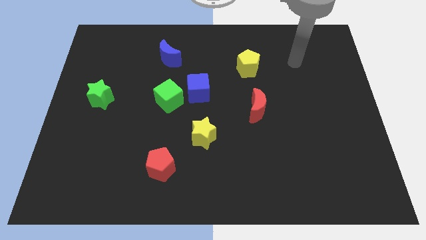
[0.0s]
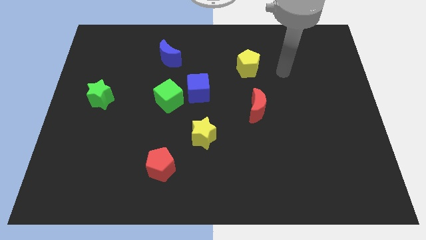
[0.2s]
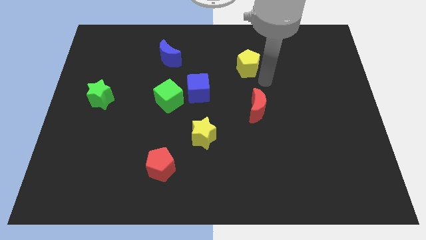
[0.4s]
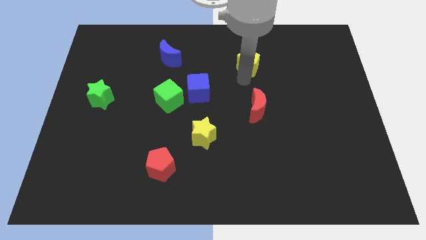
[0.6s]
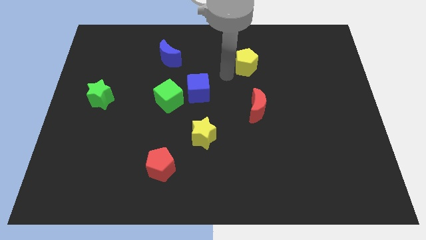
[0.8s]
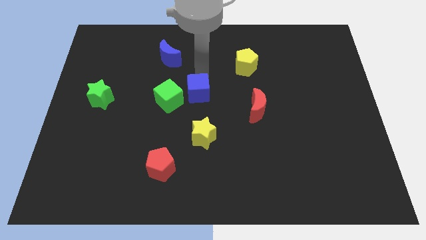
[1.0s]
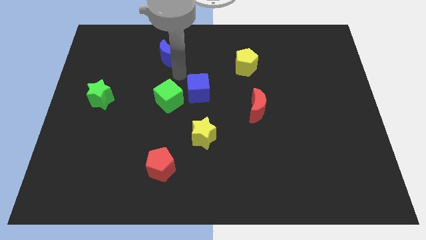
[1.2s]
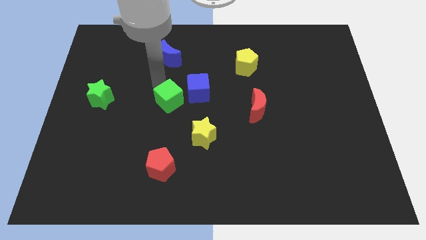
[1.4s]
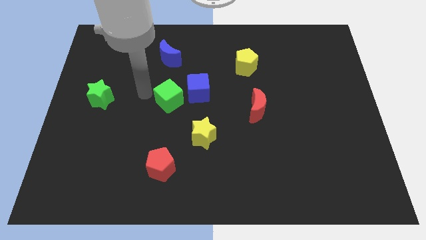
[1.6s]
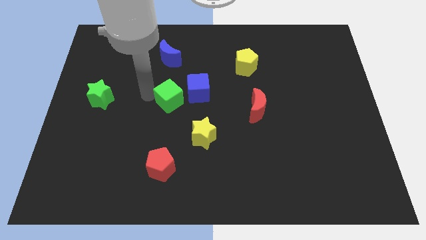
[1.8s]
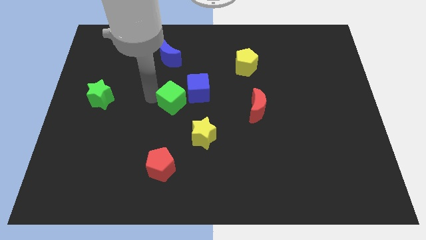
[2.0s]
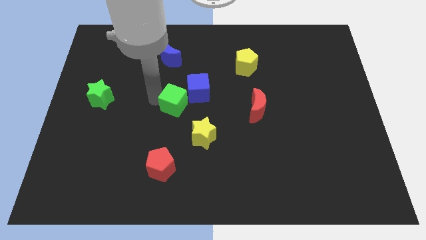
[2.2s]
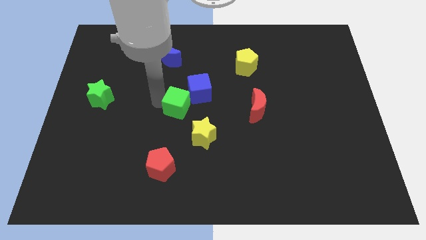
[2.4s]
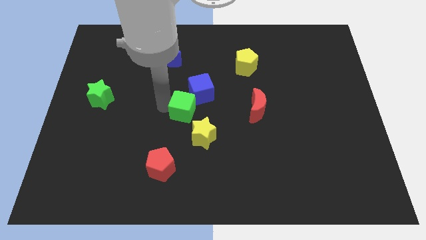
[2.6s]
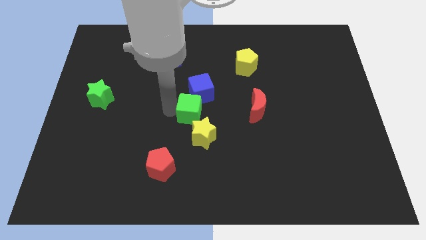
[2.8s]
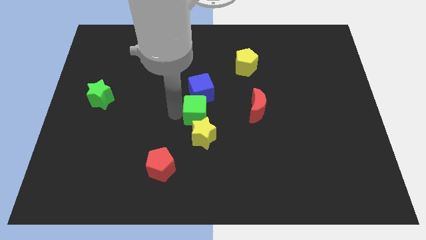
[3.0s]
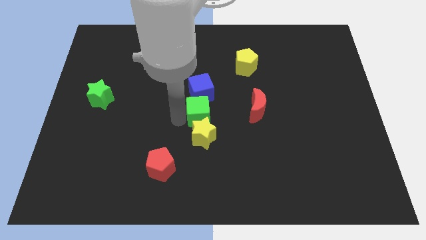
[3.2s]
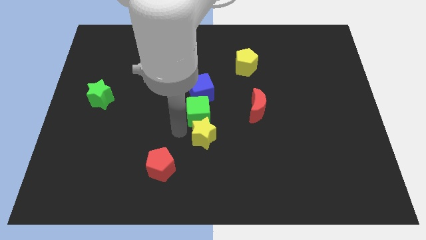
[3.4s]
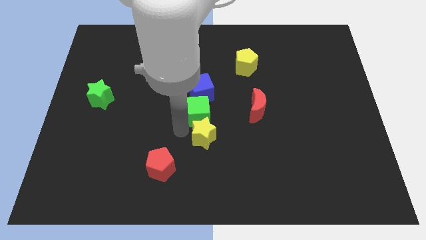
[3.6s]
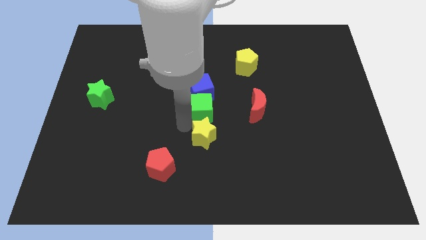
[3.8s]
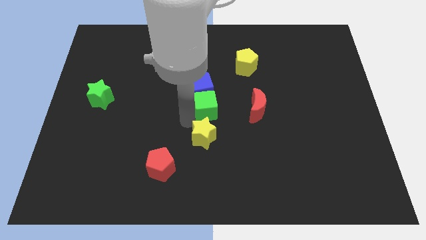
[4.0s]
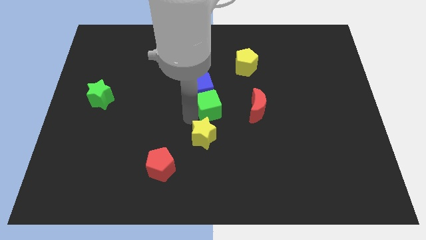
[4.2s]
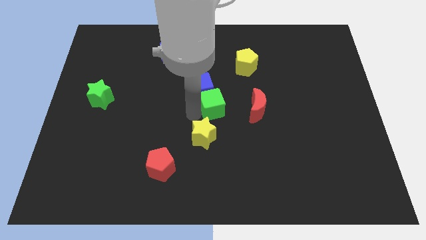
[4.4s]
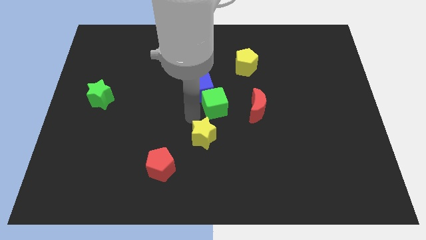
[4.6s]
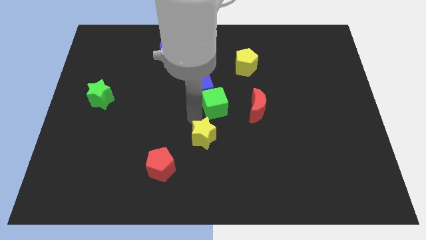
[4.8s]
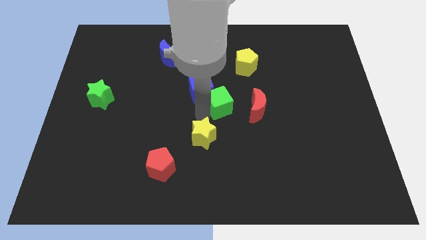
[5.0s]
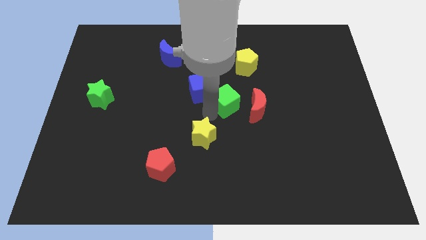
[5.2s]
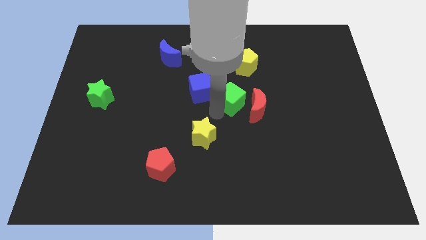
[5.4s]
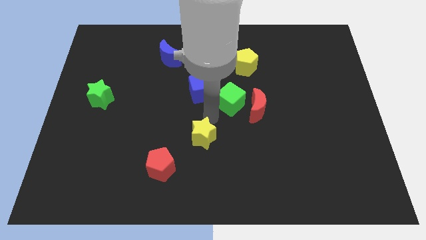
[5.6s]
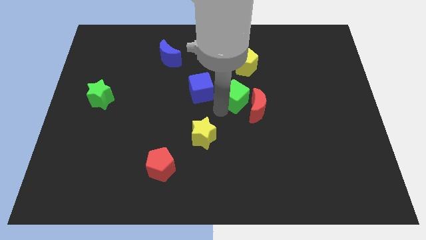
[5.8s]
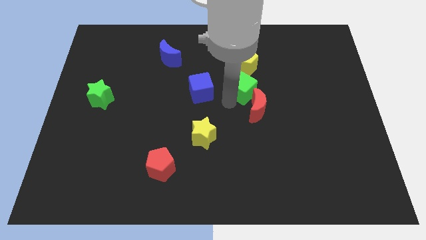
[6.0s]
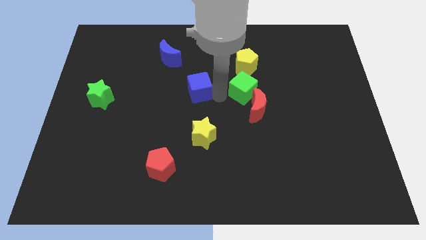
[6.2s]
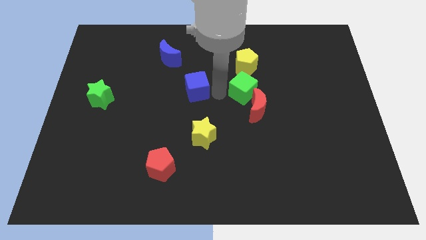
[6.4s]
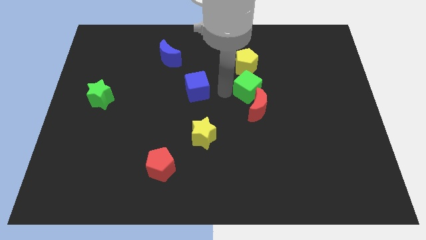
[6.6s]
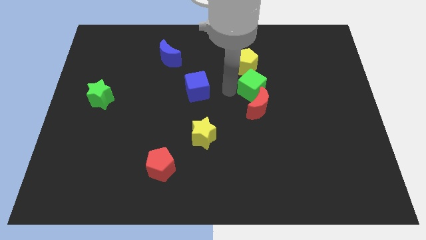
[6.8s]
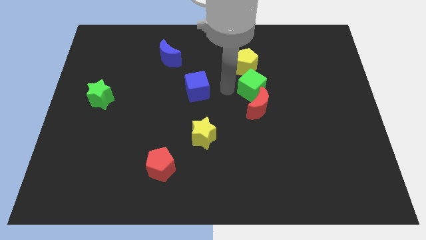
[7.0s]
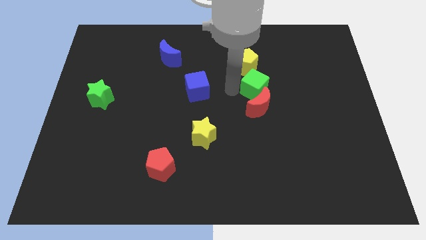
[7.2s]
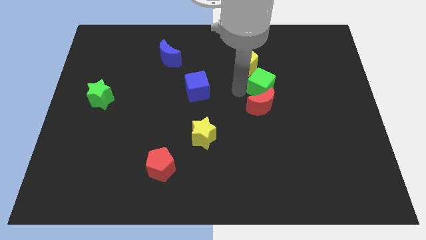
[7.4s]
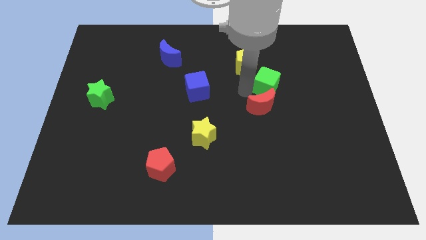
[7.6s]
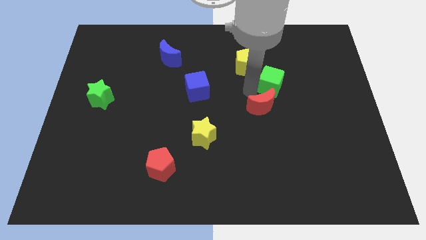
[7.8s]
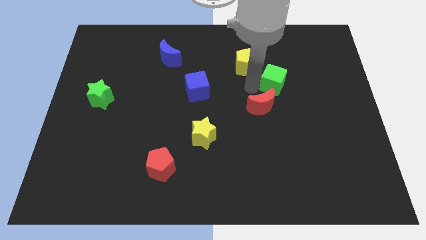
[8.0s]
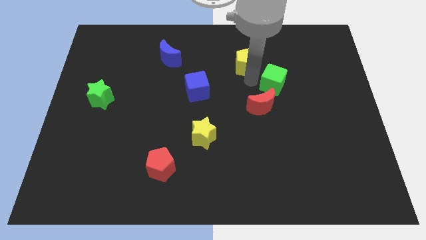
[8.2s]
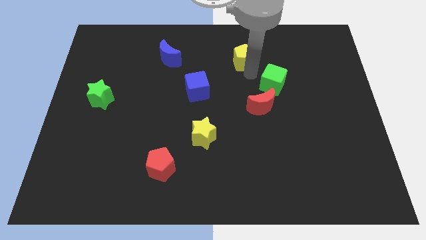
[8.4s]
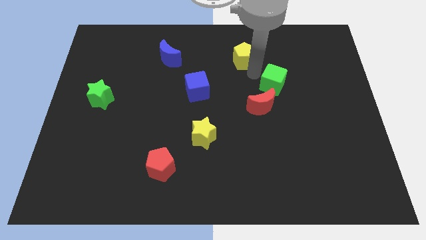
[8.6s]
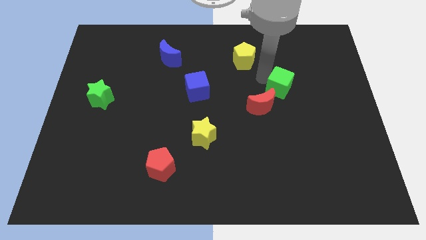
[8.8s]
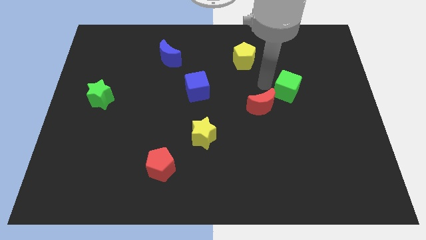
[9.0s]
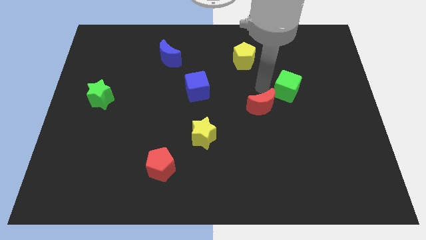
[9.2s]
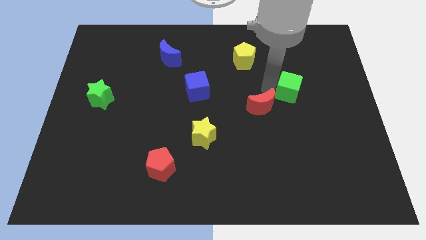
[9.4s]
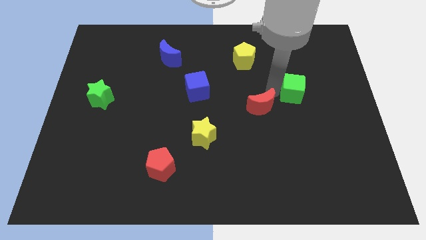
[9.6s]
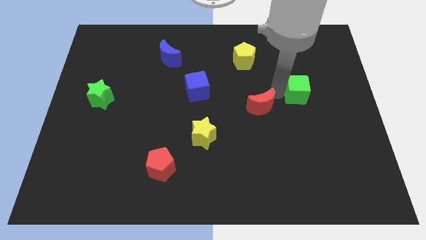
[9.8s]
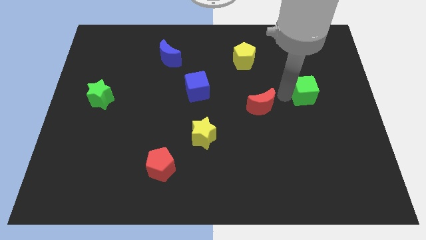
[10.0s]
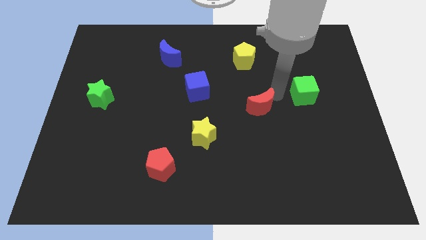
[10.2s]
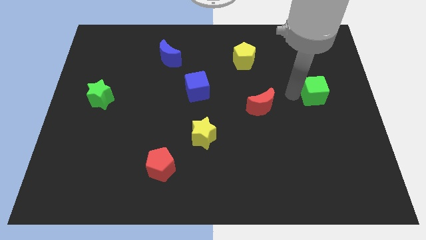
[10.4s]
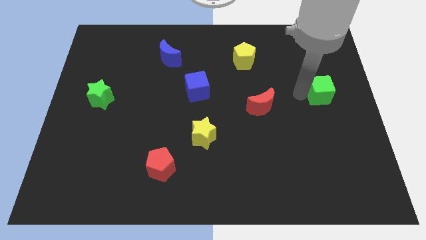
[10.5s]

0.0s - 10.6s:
put the green cube to the right side of the board

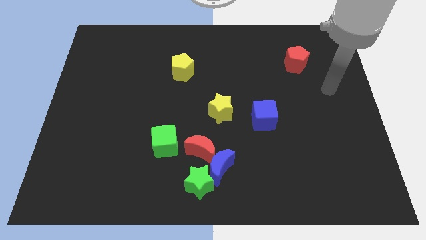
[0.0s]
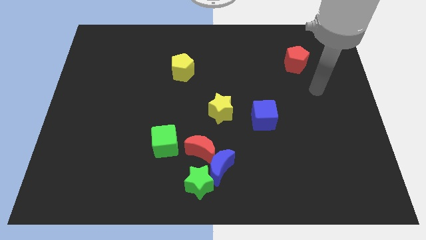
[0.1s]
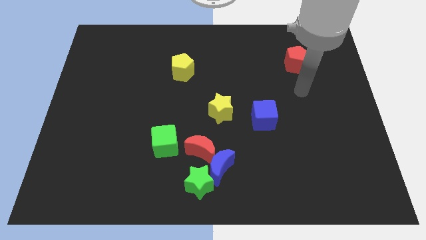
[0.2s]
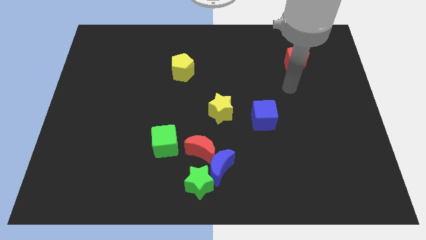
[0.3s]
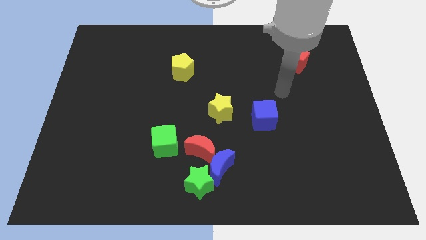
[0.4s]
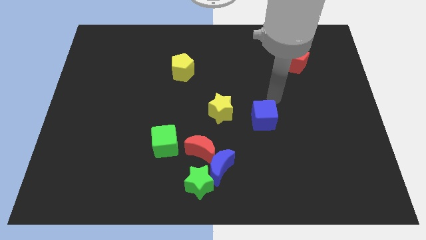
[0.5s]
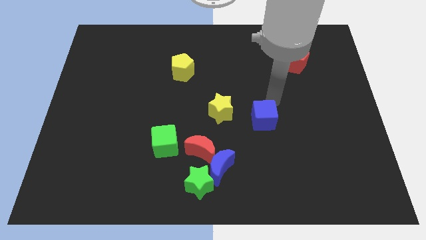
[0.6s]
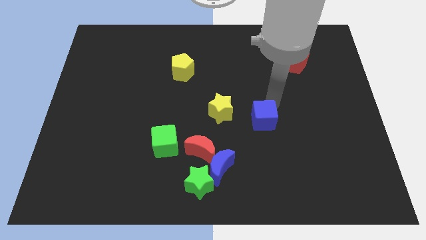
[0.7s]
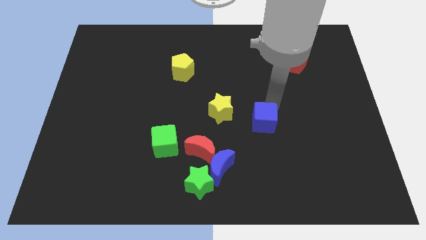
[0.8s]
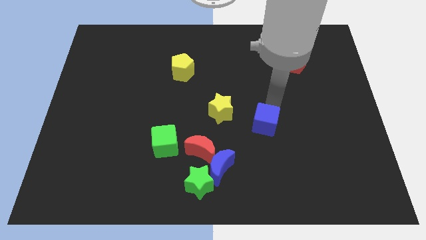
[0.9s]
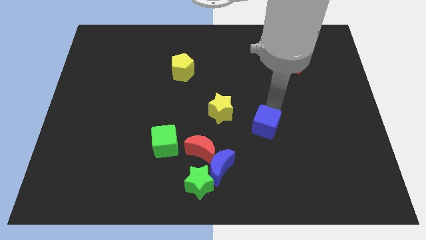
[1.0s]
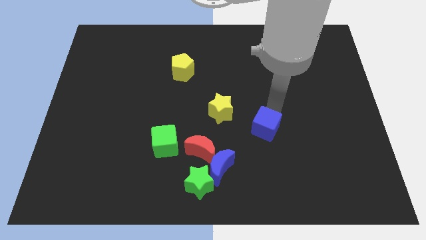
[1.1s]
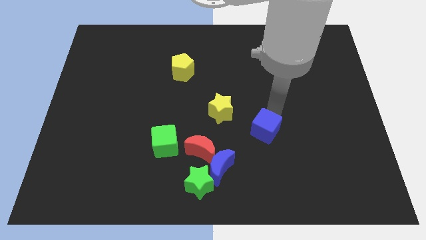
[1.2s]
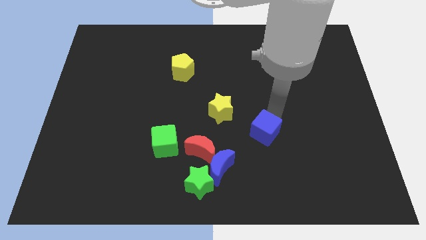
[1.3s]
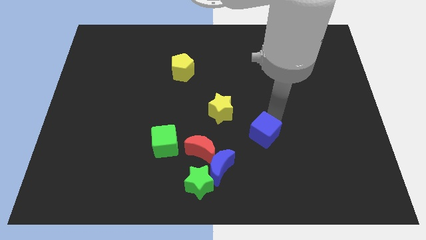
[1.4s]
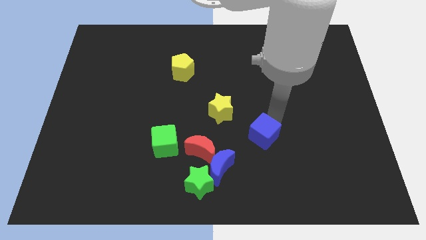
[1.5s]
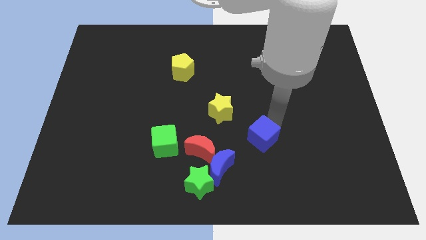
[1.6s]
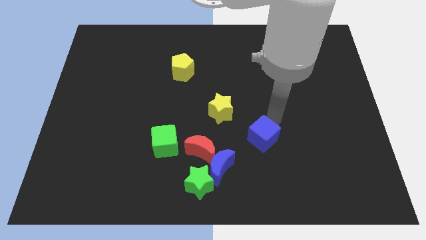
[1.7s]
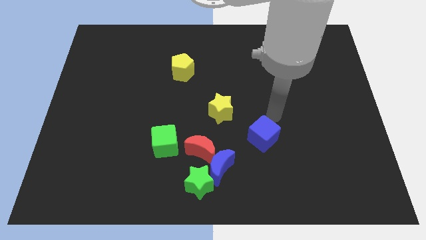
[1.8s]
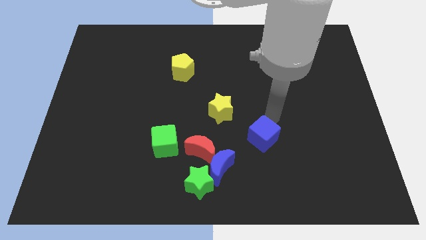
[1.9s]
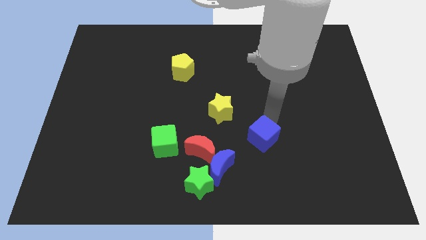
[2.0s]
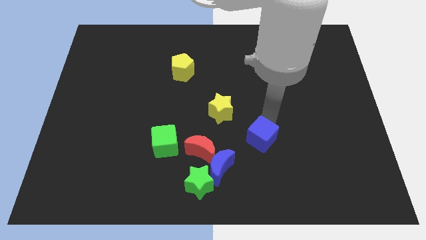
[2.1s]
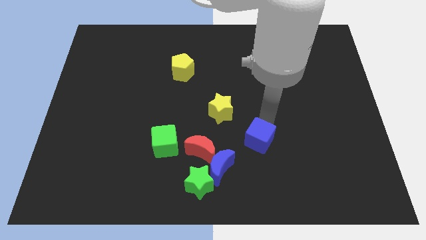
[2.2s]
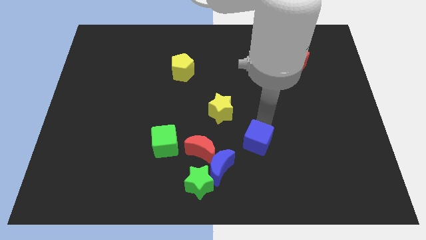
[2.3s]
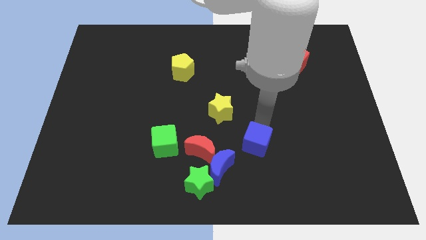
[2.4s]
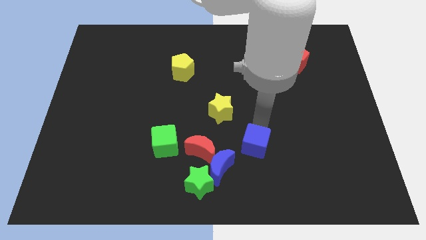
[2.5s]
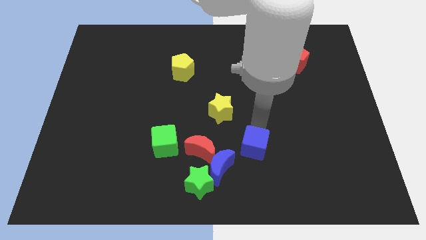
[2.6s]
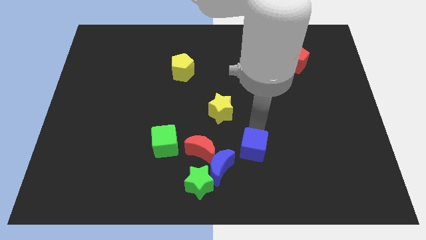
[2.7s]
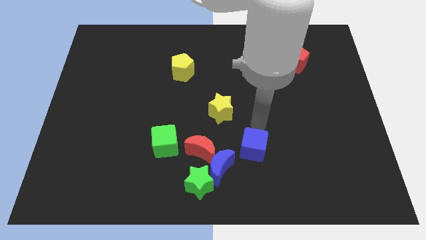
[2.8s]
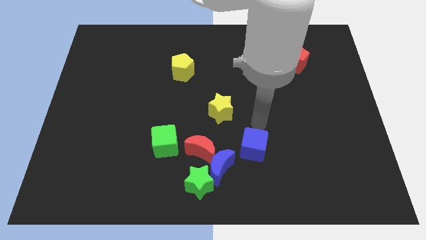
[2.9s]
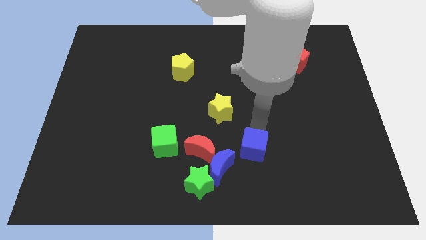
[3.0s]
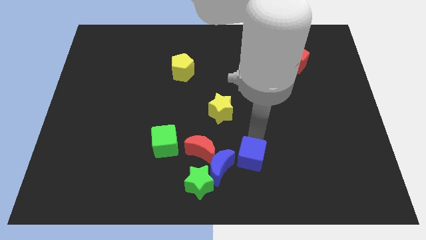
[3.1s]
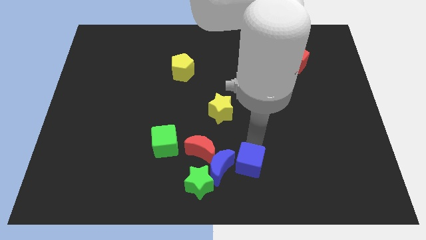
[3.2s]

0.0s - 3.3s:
put the blue cube to the bottom
